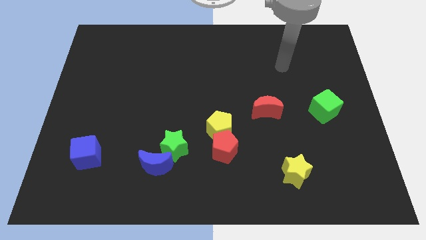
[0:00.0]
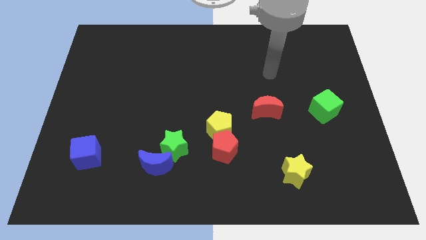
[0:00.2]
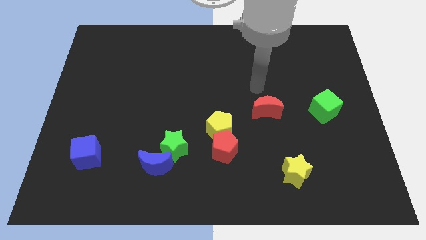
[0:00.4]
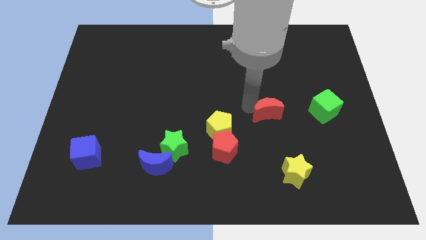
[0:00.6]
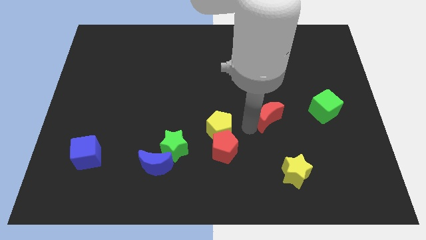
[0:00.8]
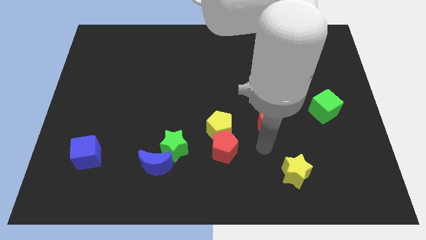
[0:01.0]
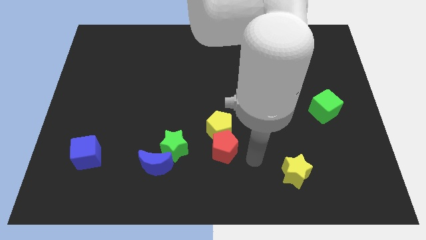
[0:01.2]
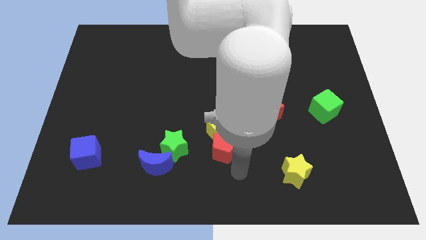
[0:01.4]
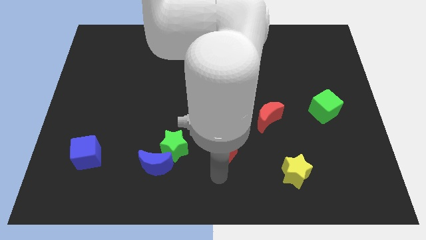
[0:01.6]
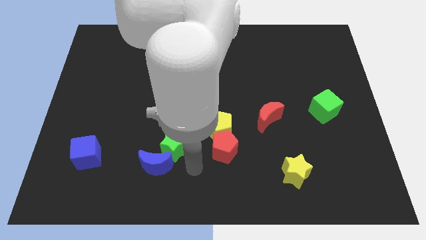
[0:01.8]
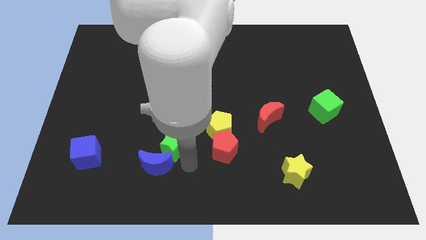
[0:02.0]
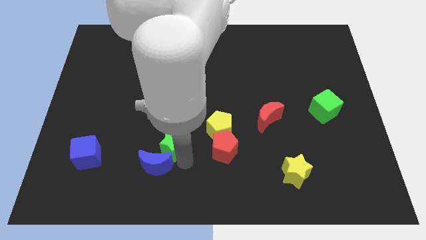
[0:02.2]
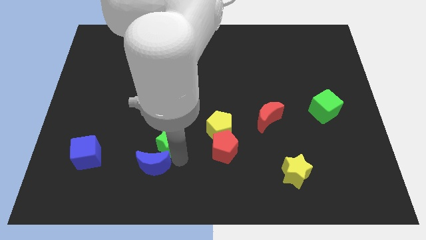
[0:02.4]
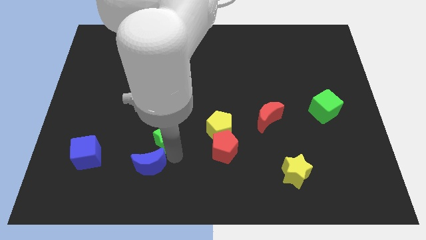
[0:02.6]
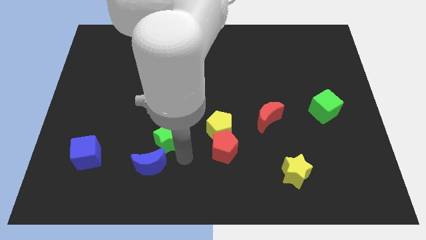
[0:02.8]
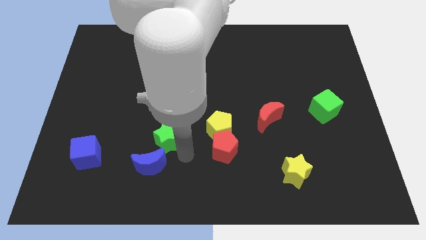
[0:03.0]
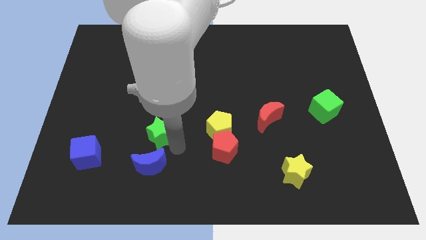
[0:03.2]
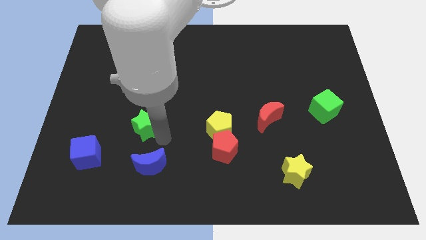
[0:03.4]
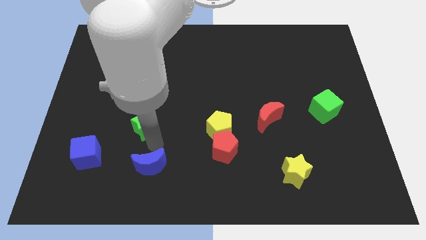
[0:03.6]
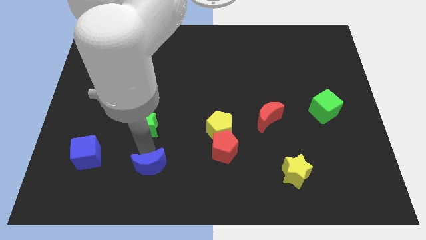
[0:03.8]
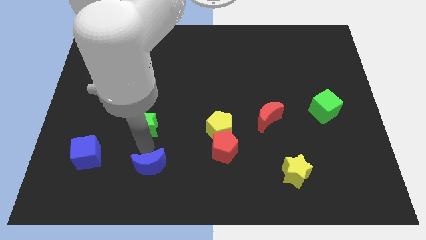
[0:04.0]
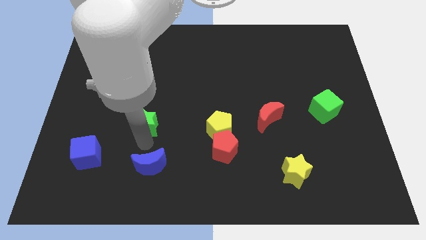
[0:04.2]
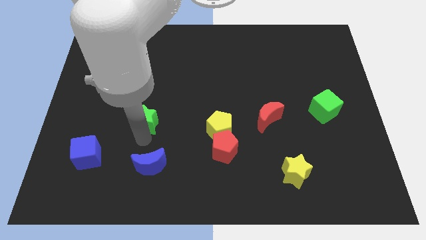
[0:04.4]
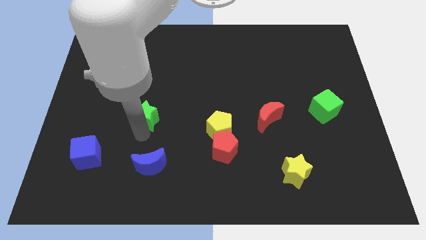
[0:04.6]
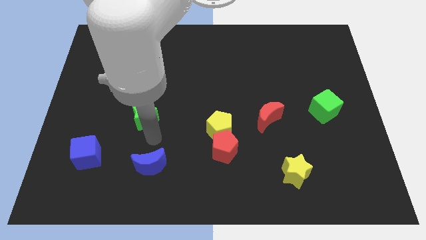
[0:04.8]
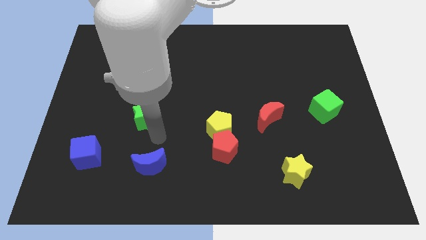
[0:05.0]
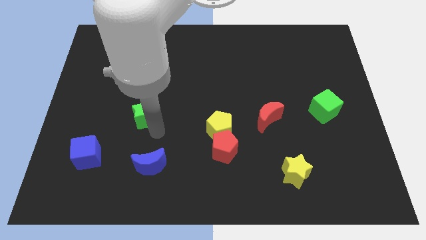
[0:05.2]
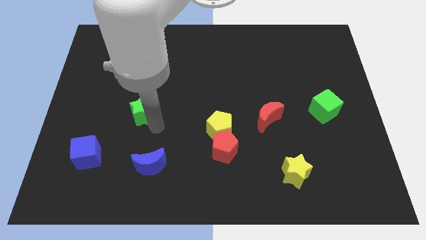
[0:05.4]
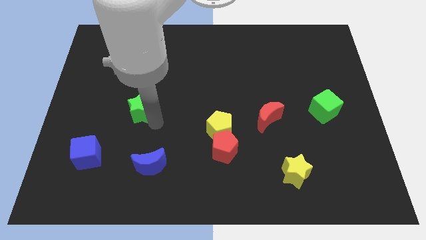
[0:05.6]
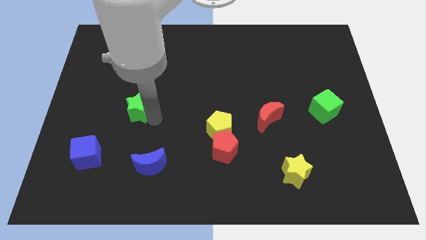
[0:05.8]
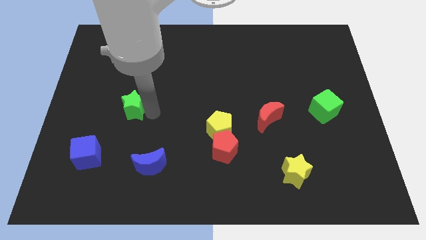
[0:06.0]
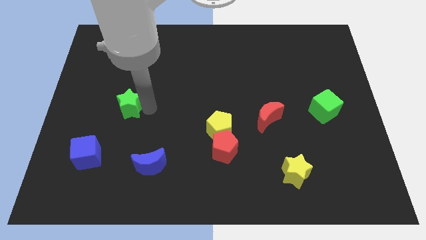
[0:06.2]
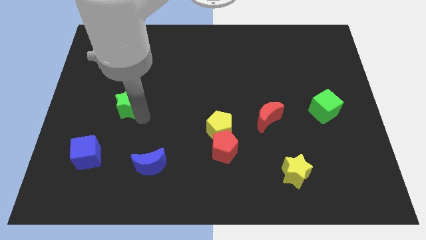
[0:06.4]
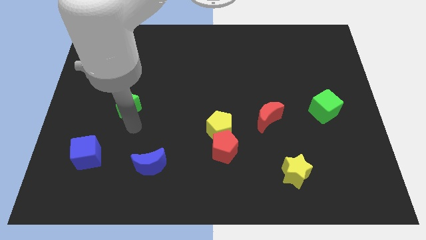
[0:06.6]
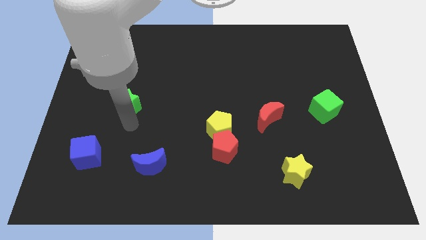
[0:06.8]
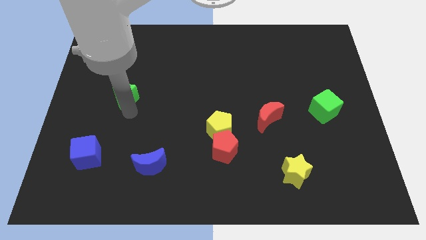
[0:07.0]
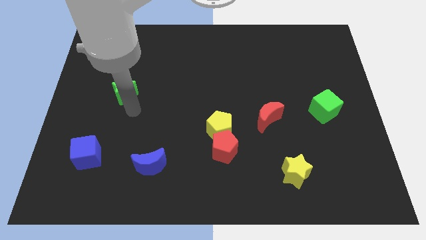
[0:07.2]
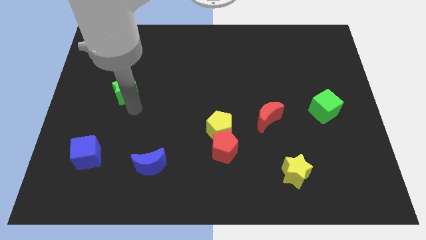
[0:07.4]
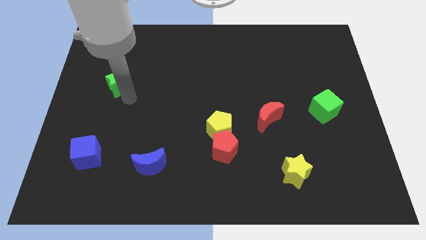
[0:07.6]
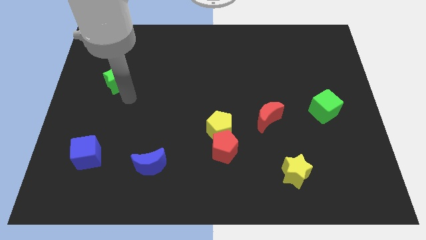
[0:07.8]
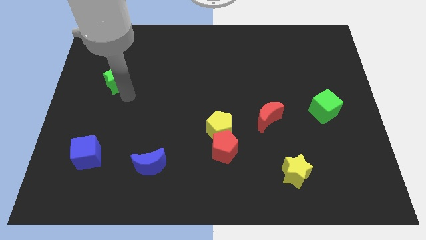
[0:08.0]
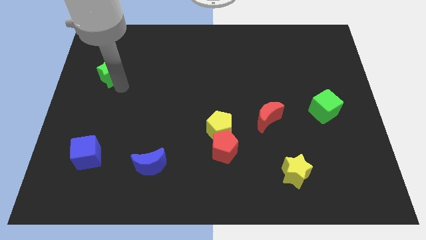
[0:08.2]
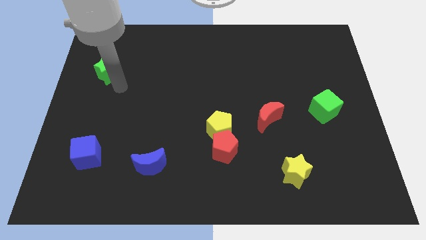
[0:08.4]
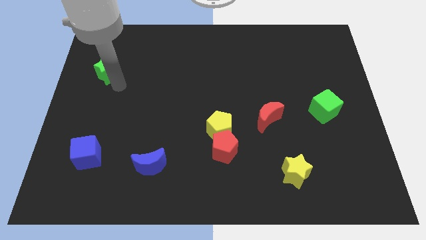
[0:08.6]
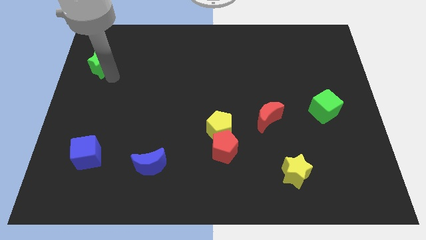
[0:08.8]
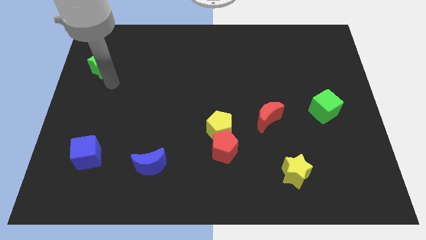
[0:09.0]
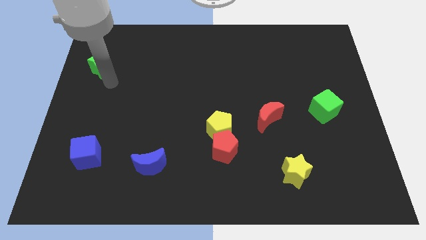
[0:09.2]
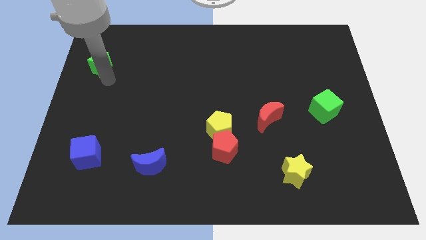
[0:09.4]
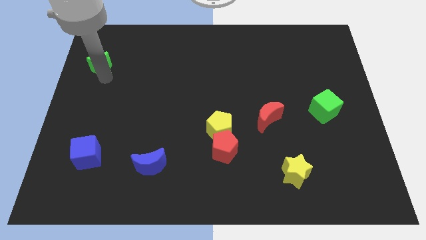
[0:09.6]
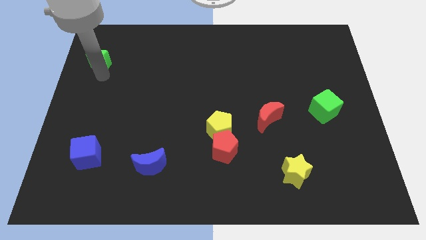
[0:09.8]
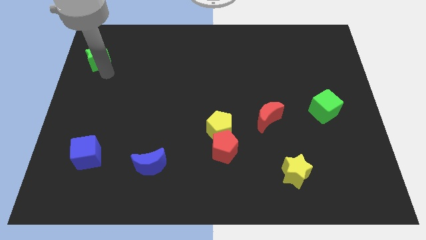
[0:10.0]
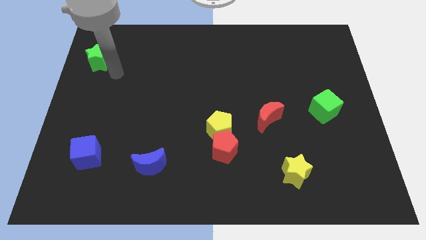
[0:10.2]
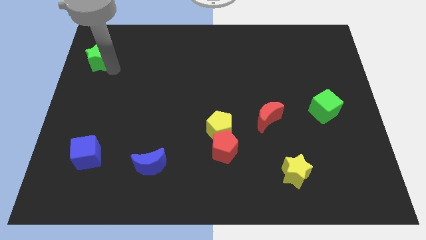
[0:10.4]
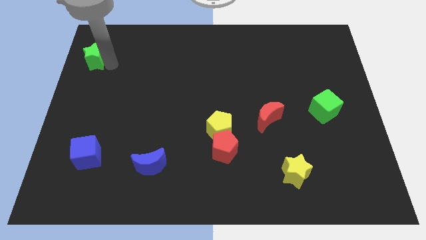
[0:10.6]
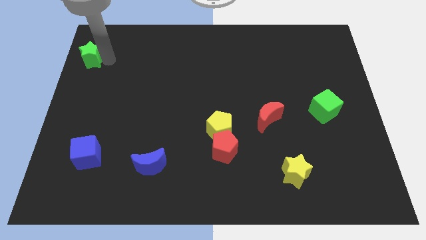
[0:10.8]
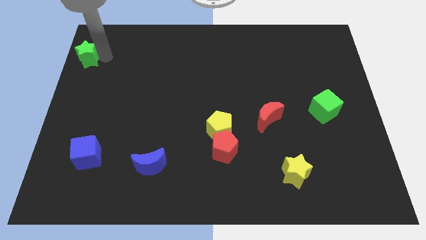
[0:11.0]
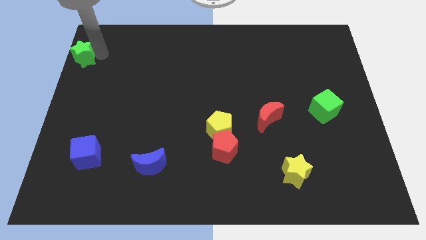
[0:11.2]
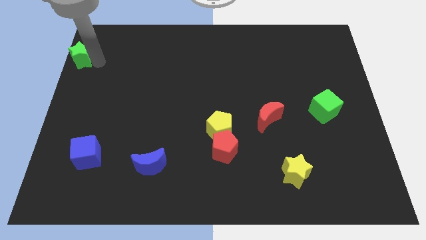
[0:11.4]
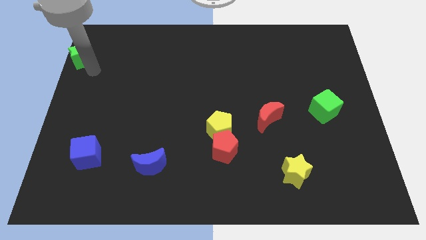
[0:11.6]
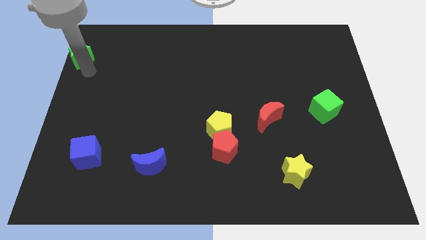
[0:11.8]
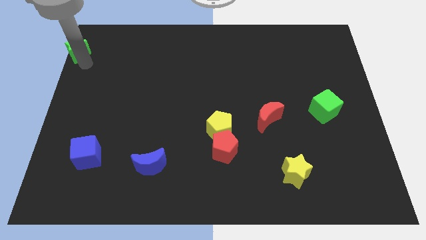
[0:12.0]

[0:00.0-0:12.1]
move the green star to the top left
